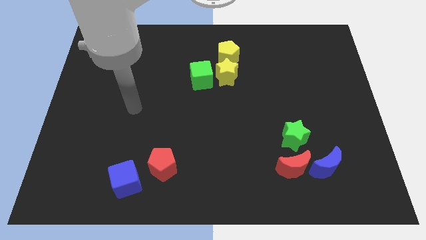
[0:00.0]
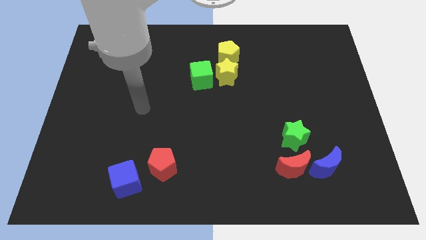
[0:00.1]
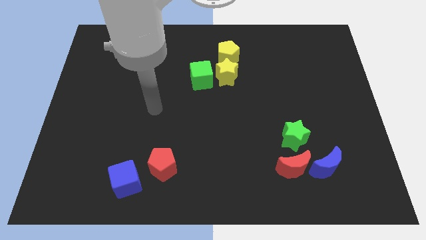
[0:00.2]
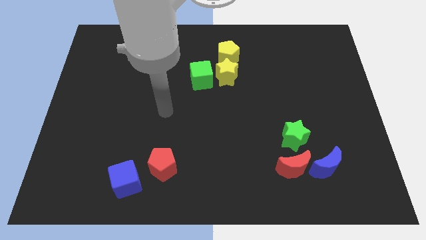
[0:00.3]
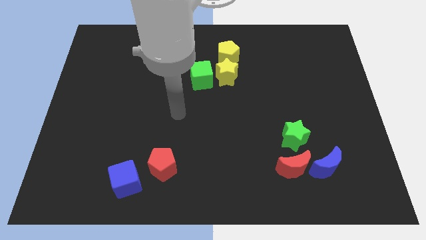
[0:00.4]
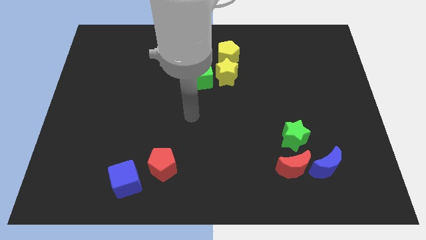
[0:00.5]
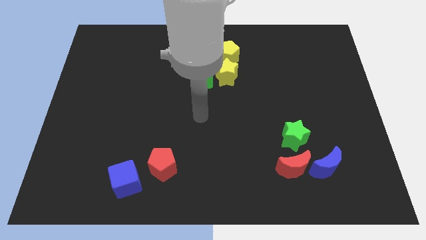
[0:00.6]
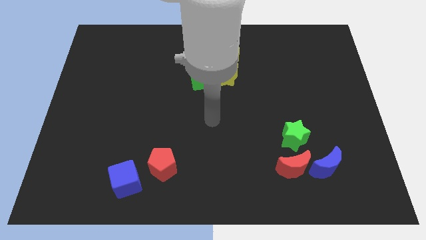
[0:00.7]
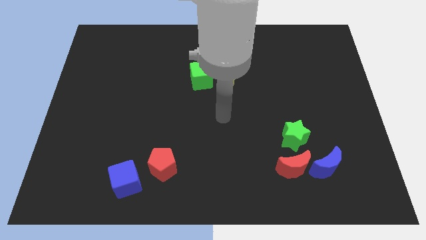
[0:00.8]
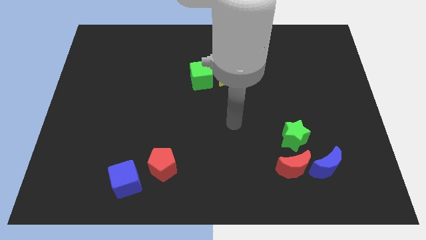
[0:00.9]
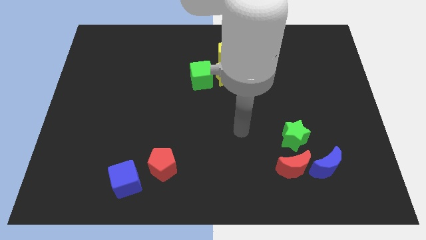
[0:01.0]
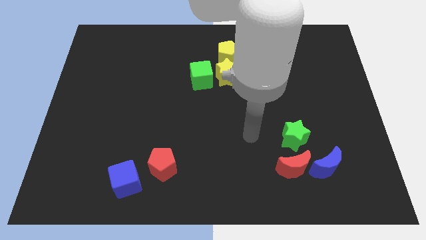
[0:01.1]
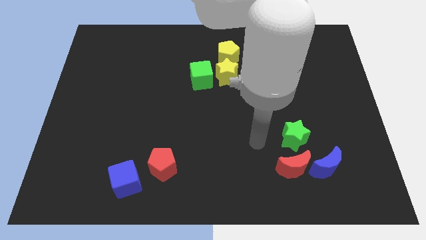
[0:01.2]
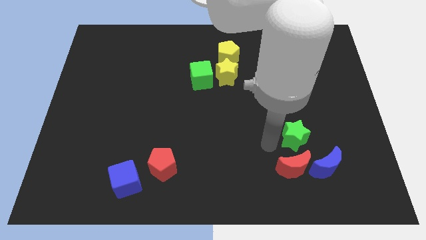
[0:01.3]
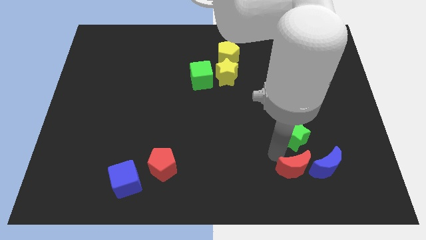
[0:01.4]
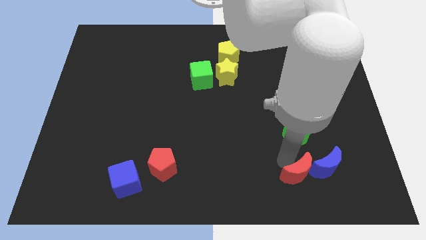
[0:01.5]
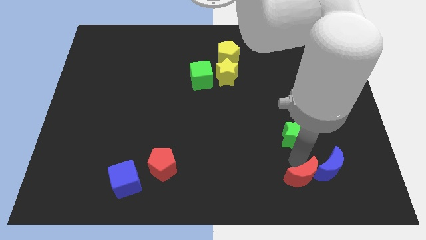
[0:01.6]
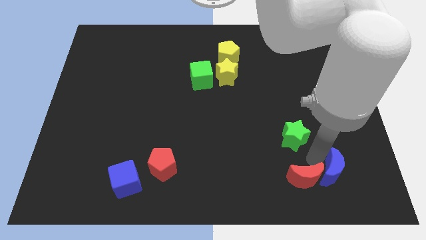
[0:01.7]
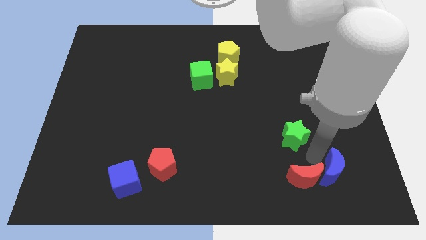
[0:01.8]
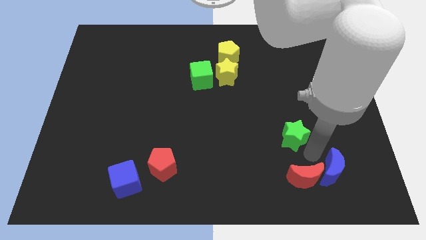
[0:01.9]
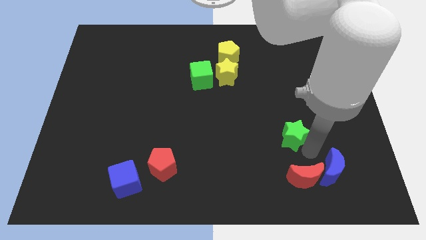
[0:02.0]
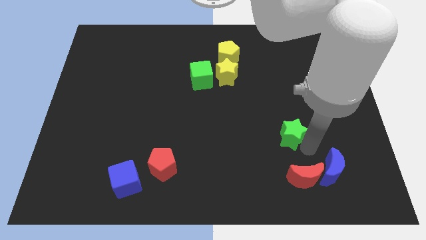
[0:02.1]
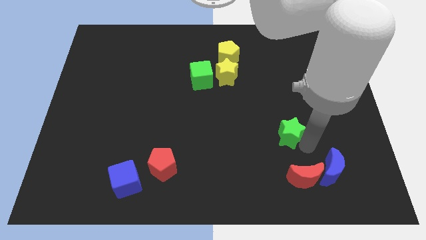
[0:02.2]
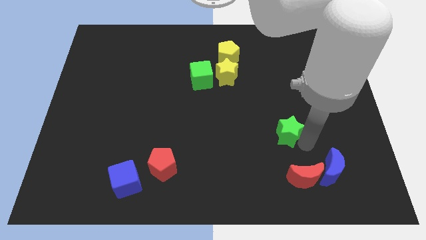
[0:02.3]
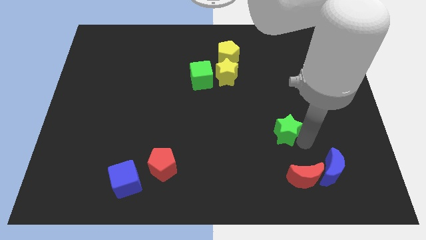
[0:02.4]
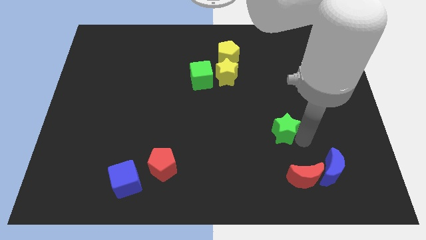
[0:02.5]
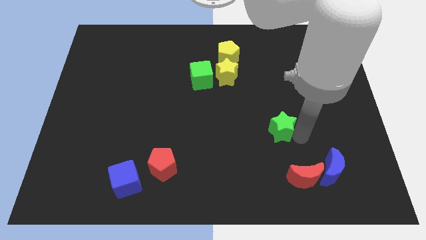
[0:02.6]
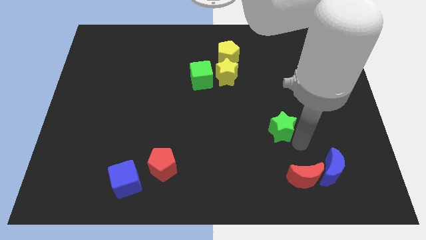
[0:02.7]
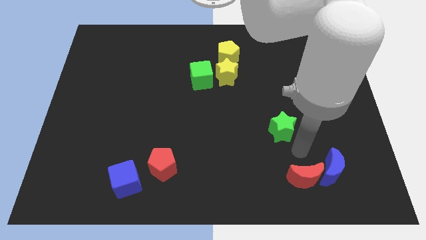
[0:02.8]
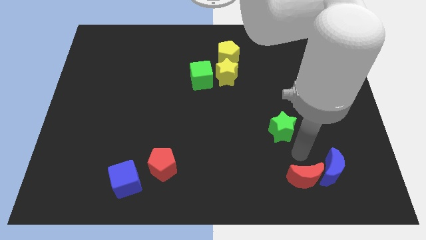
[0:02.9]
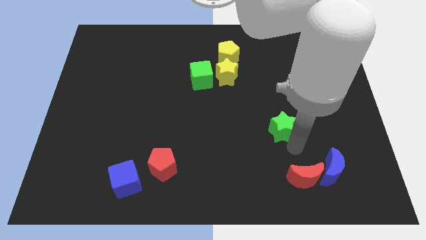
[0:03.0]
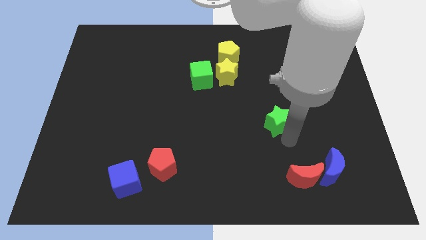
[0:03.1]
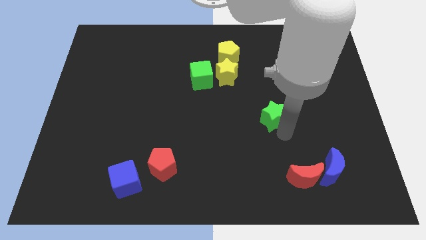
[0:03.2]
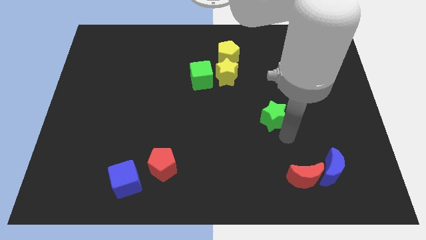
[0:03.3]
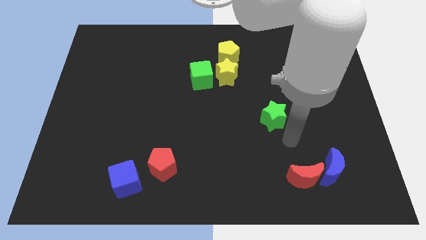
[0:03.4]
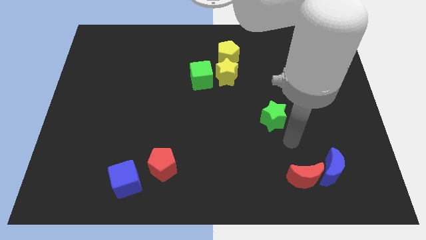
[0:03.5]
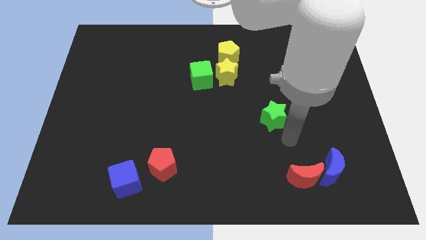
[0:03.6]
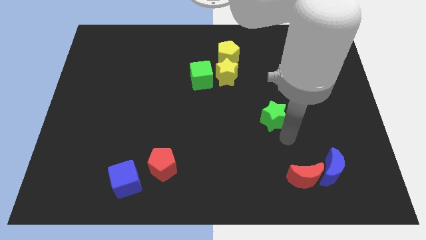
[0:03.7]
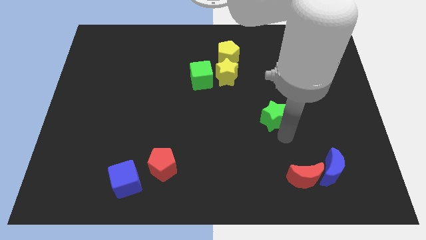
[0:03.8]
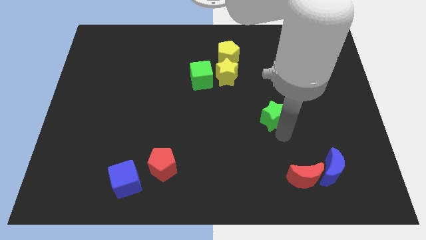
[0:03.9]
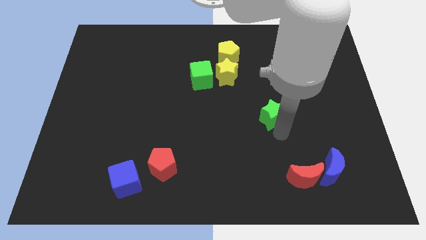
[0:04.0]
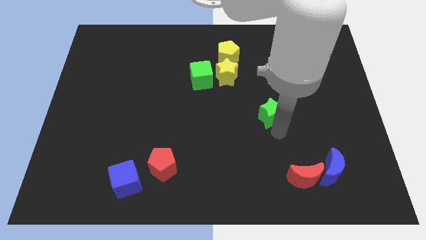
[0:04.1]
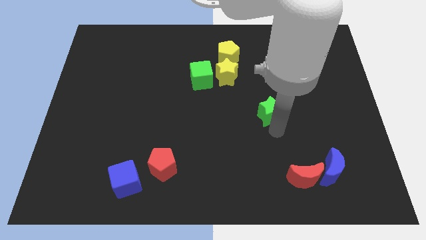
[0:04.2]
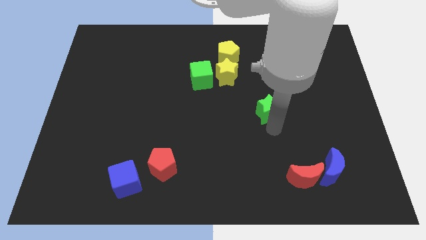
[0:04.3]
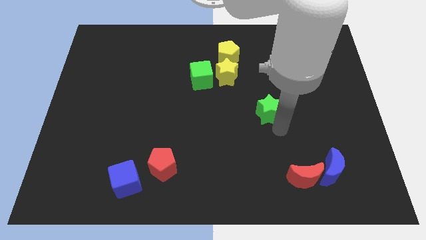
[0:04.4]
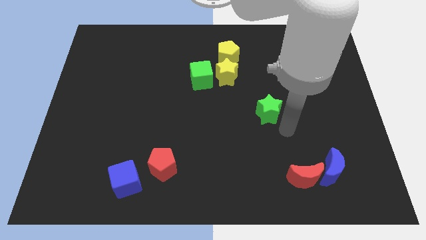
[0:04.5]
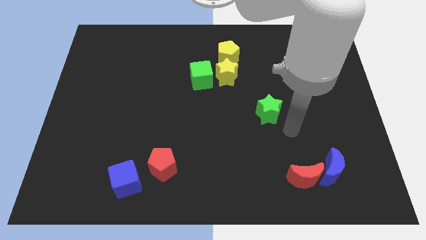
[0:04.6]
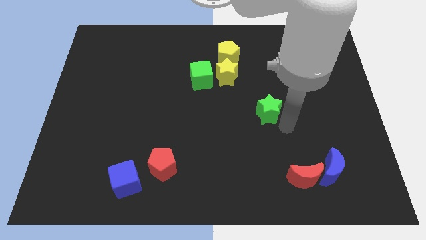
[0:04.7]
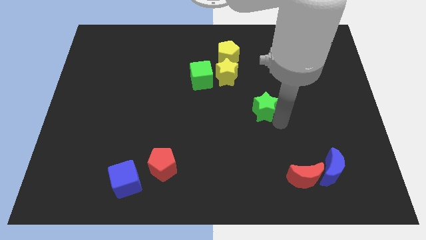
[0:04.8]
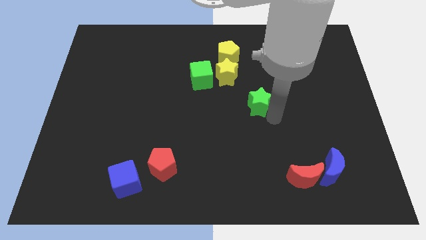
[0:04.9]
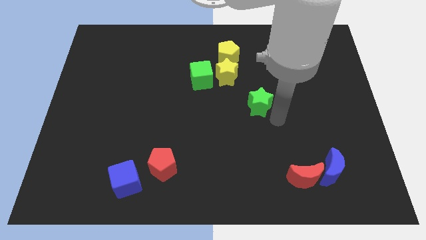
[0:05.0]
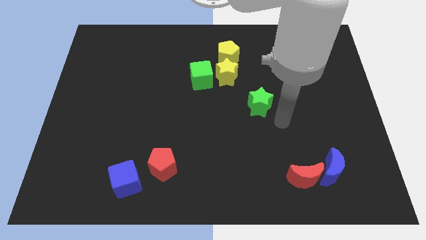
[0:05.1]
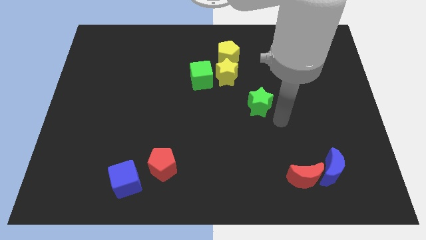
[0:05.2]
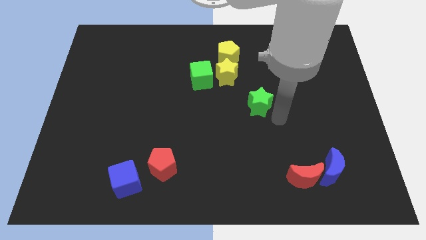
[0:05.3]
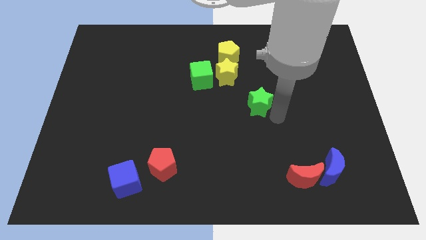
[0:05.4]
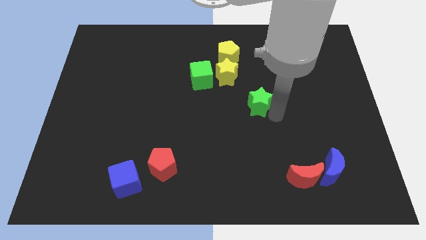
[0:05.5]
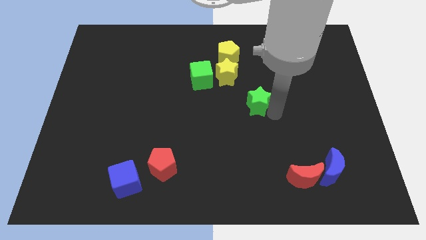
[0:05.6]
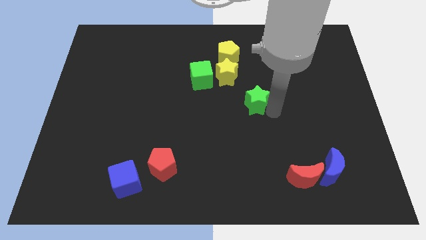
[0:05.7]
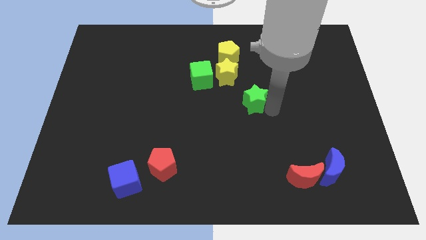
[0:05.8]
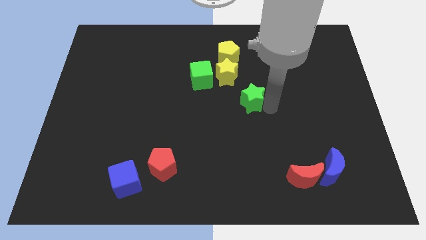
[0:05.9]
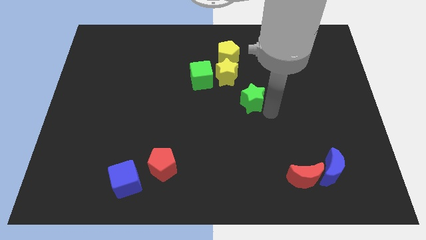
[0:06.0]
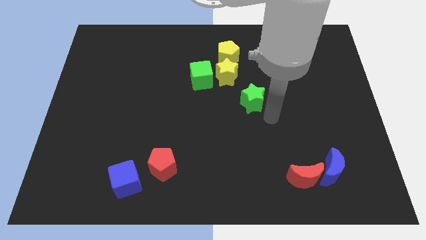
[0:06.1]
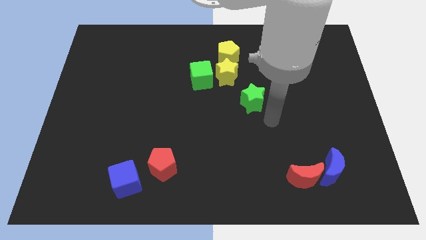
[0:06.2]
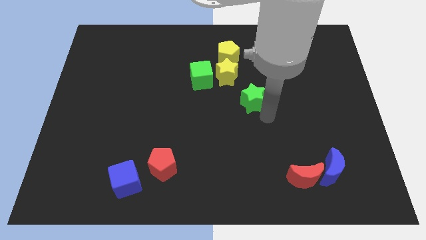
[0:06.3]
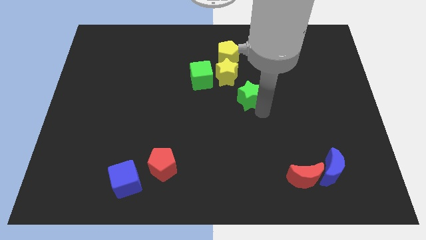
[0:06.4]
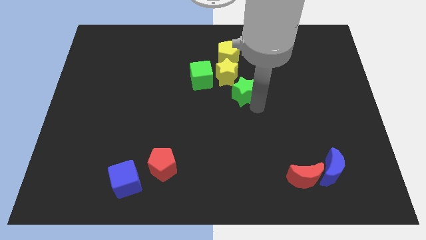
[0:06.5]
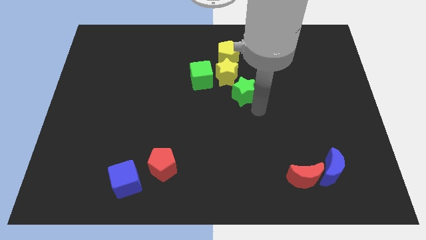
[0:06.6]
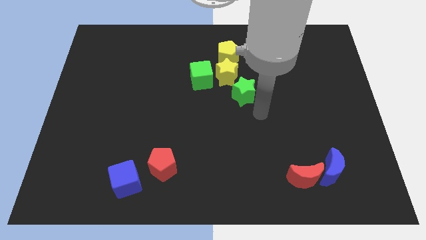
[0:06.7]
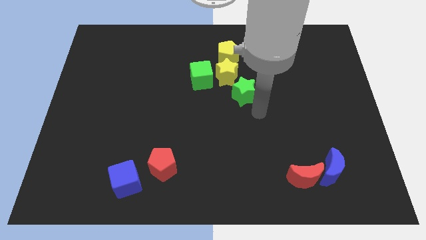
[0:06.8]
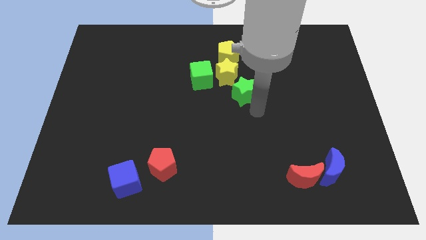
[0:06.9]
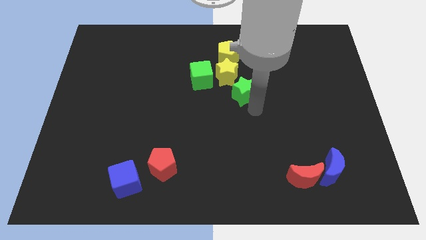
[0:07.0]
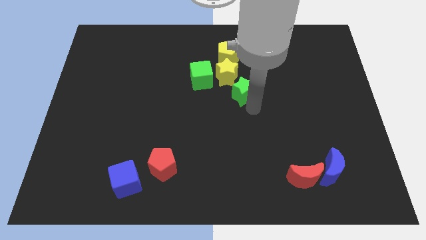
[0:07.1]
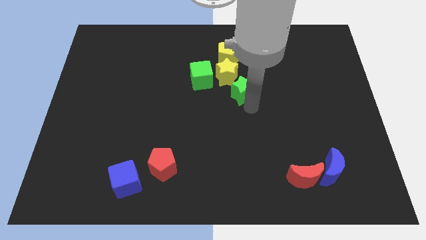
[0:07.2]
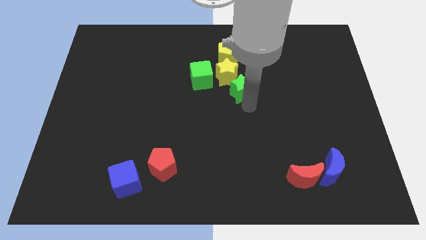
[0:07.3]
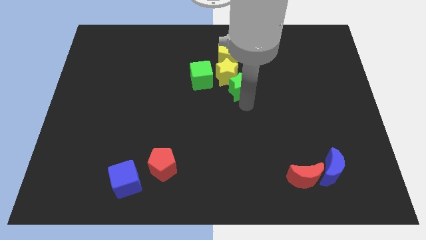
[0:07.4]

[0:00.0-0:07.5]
put the green star next to the yellow star
